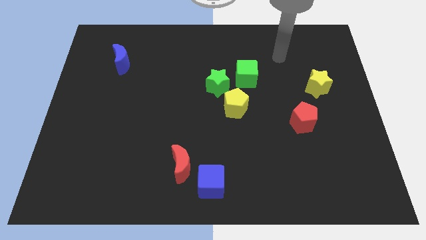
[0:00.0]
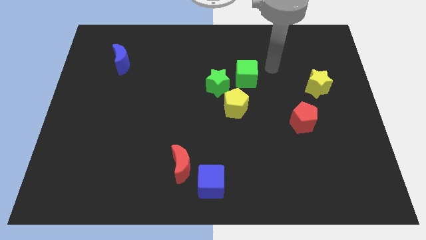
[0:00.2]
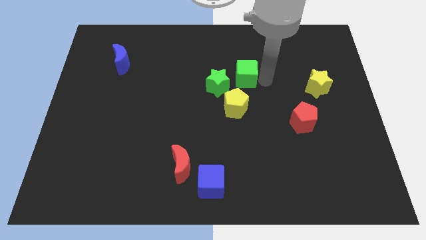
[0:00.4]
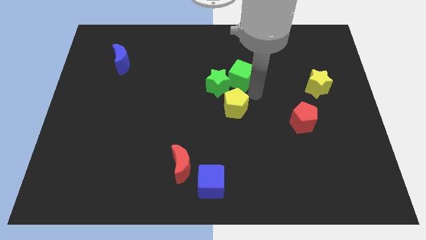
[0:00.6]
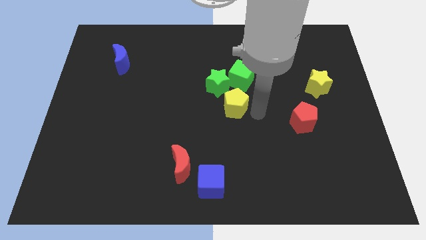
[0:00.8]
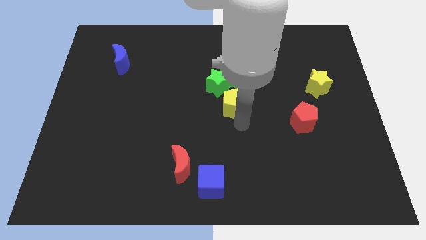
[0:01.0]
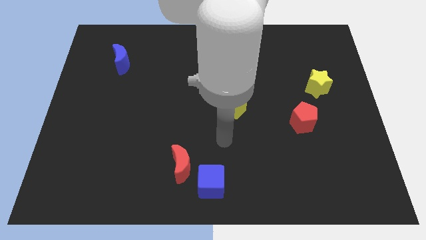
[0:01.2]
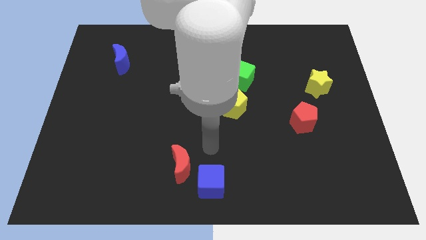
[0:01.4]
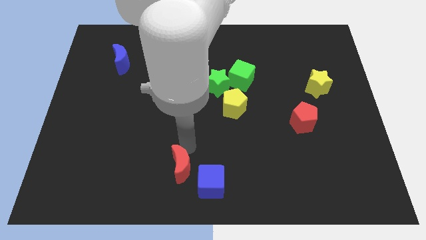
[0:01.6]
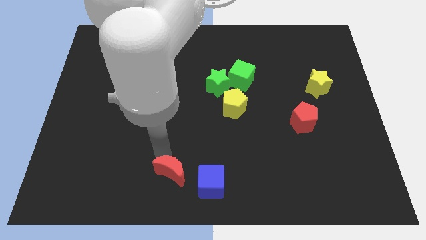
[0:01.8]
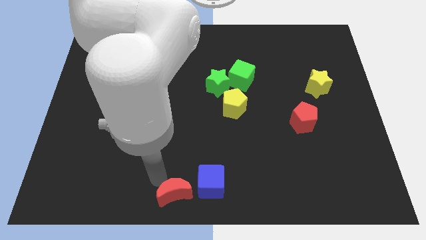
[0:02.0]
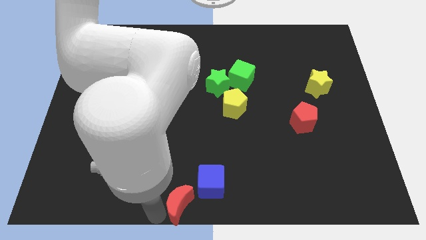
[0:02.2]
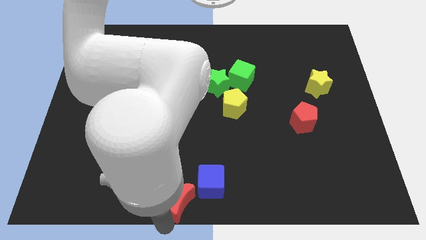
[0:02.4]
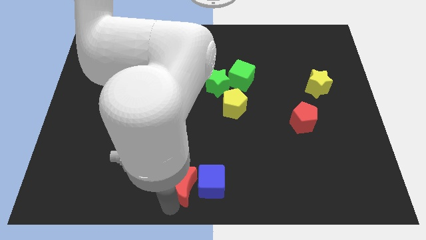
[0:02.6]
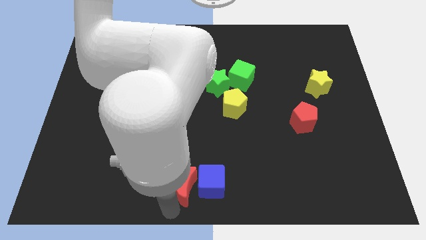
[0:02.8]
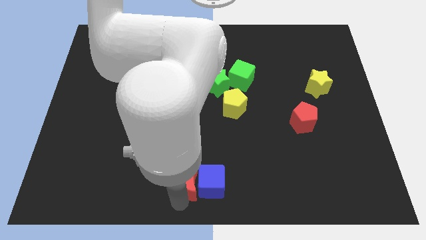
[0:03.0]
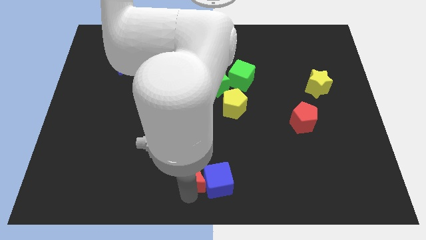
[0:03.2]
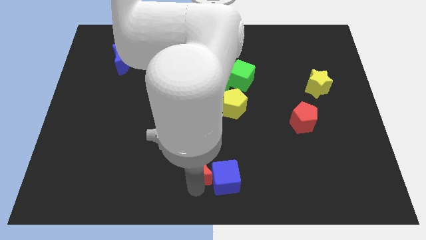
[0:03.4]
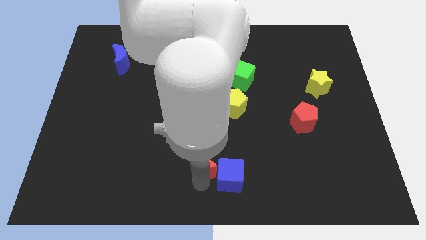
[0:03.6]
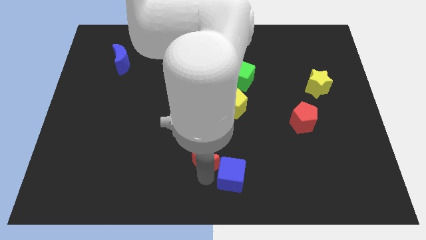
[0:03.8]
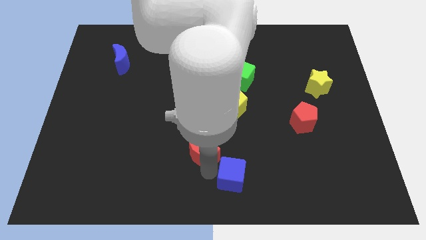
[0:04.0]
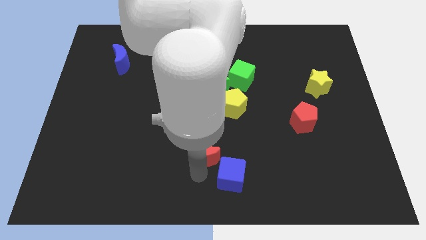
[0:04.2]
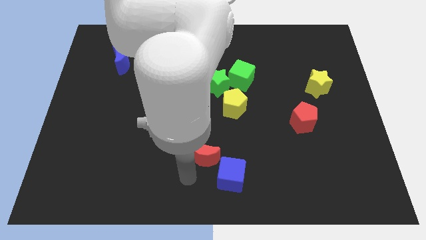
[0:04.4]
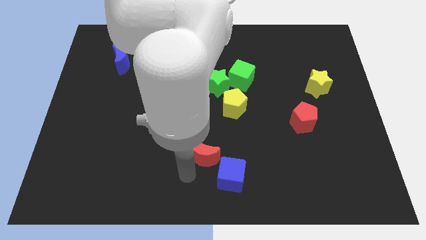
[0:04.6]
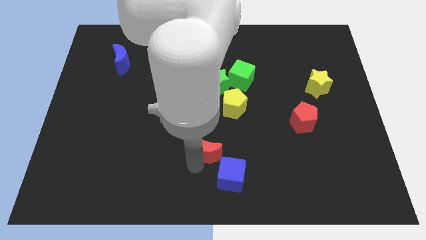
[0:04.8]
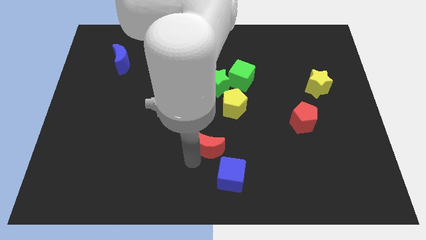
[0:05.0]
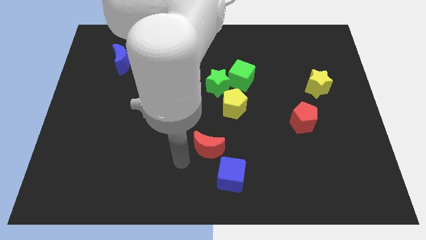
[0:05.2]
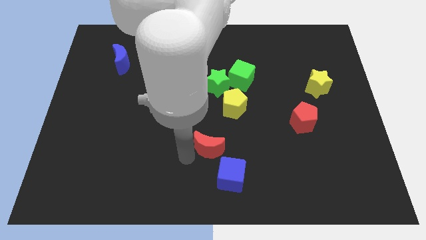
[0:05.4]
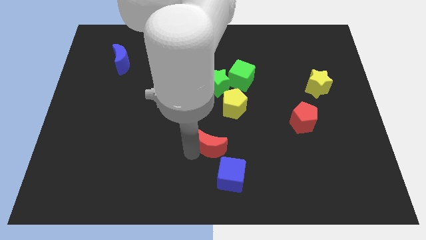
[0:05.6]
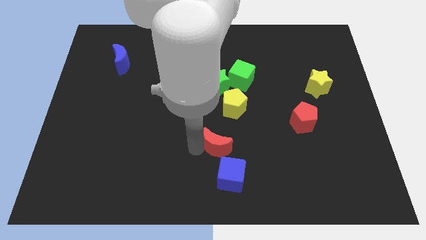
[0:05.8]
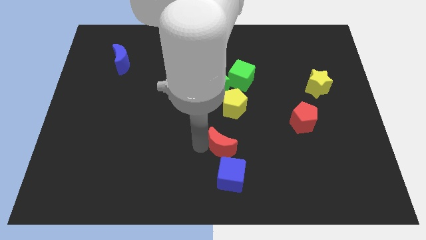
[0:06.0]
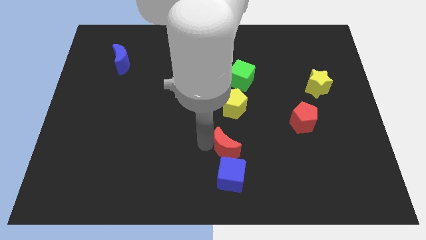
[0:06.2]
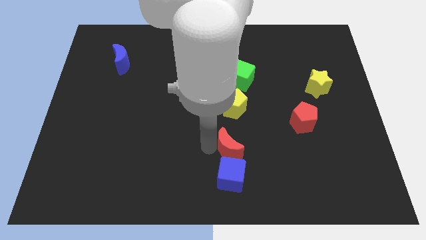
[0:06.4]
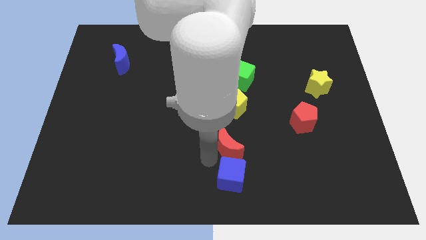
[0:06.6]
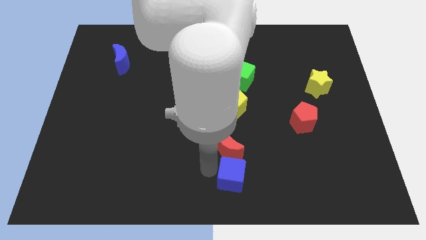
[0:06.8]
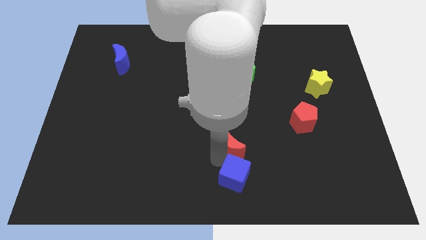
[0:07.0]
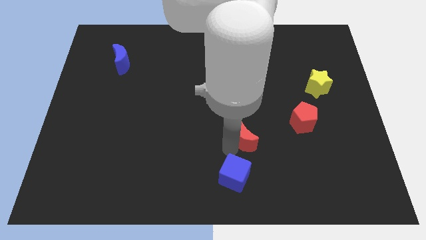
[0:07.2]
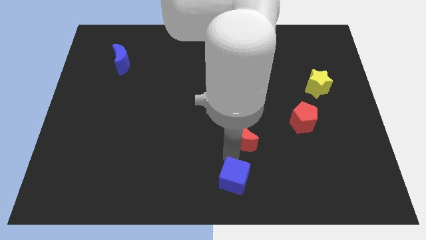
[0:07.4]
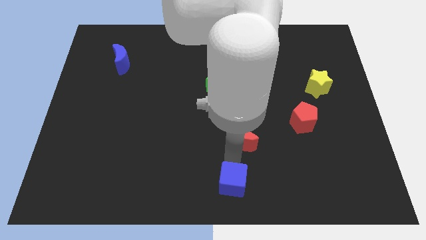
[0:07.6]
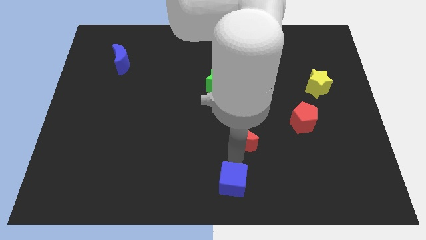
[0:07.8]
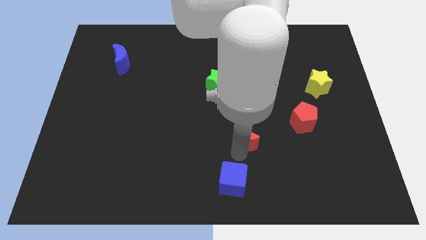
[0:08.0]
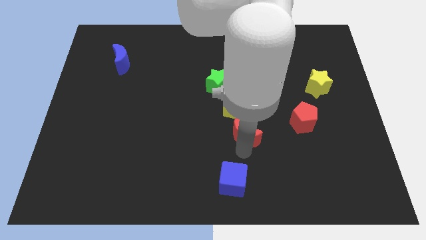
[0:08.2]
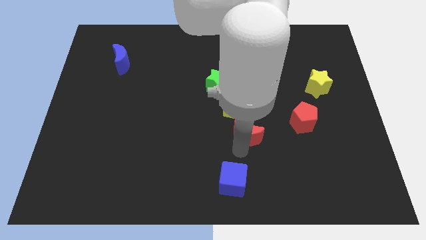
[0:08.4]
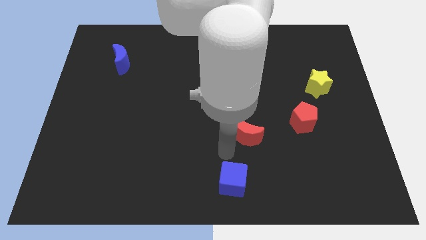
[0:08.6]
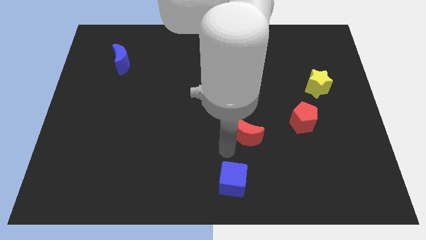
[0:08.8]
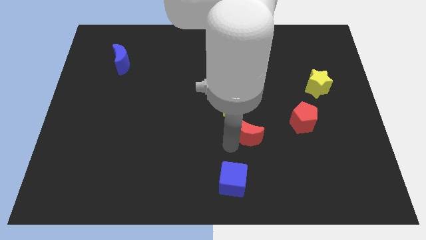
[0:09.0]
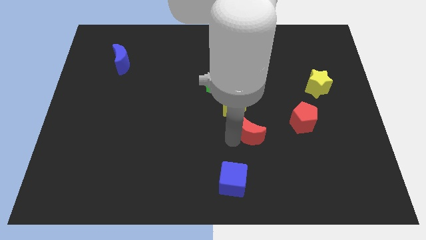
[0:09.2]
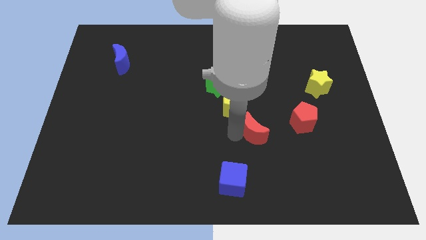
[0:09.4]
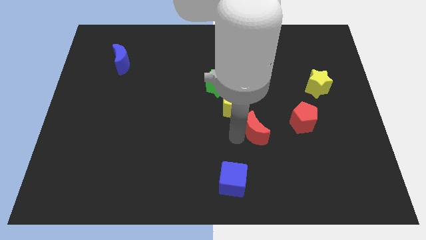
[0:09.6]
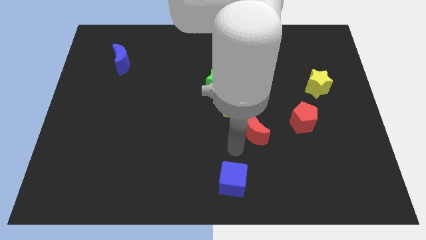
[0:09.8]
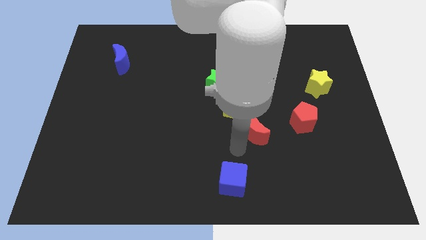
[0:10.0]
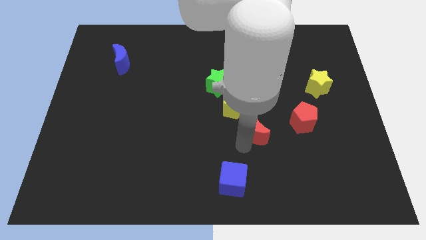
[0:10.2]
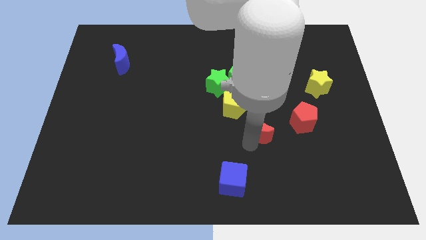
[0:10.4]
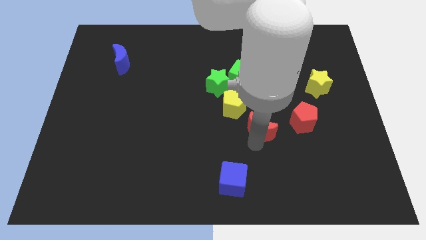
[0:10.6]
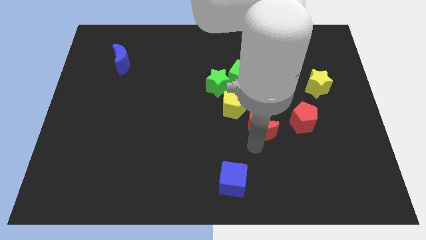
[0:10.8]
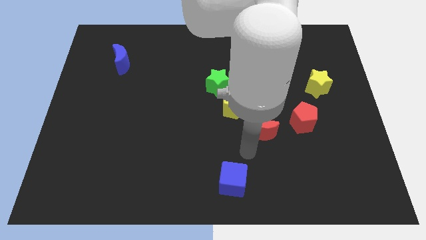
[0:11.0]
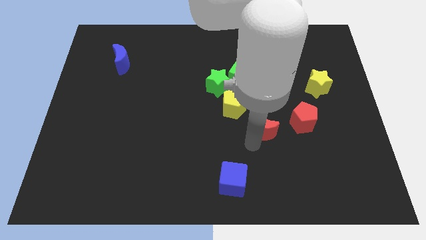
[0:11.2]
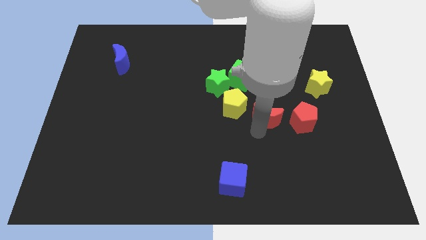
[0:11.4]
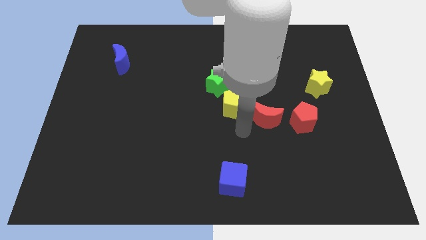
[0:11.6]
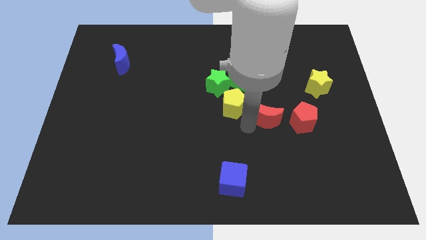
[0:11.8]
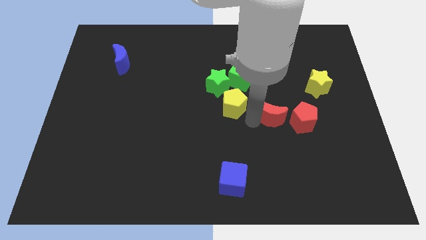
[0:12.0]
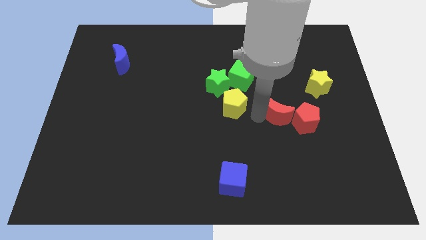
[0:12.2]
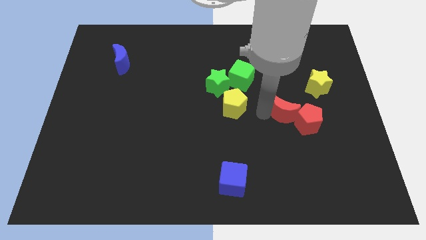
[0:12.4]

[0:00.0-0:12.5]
push the red moon diagonally down and to the left of the yellow star

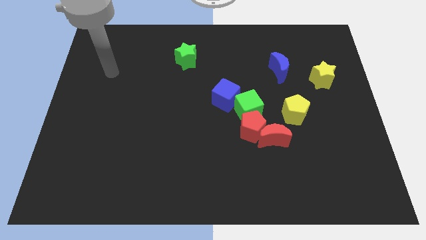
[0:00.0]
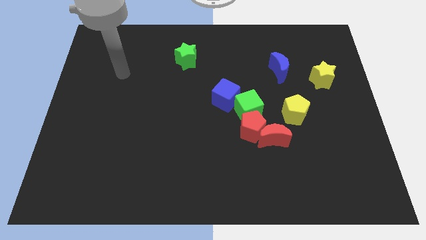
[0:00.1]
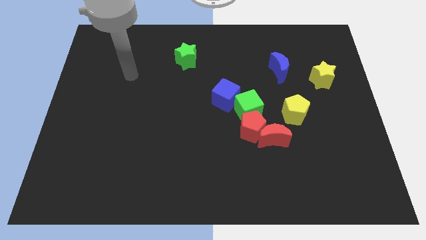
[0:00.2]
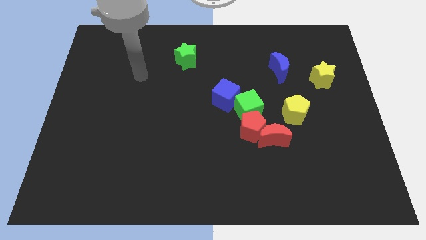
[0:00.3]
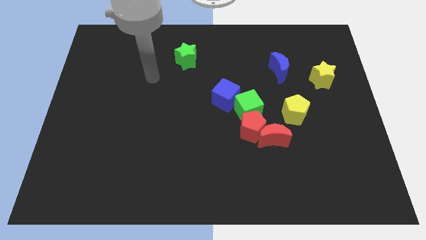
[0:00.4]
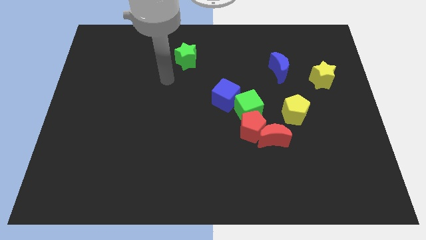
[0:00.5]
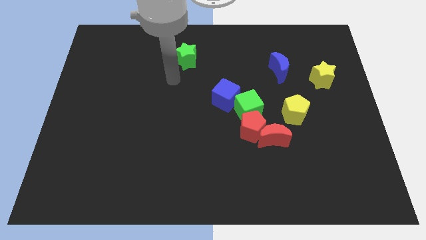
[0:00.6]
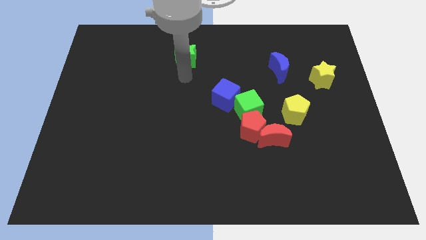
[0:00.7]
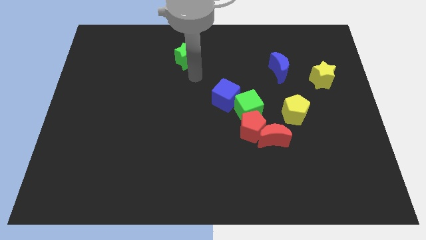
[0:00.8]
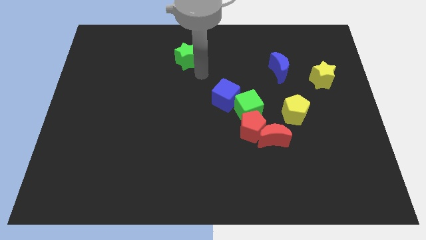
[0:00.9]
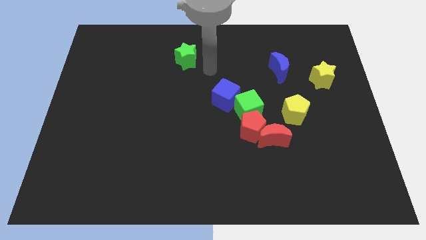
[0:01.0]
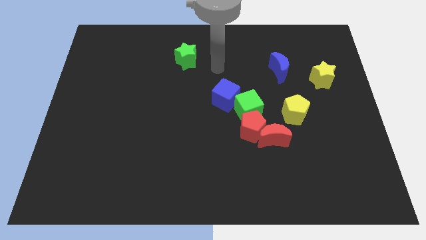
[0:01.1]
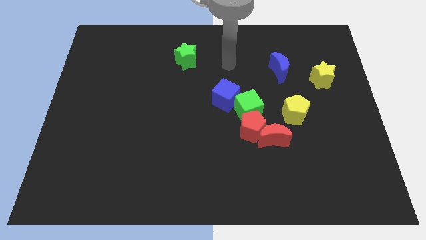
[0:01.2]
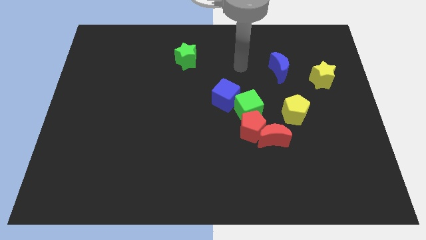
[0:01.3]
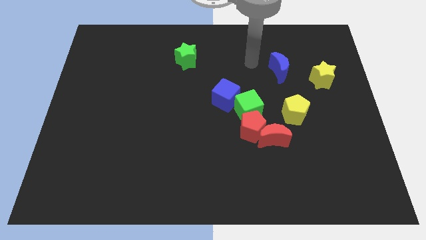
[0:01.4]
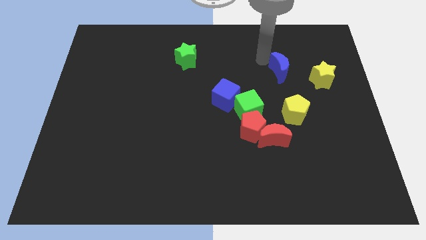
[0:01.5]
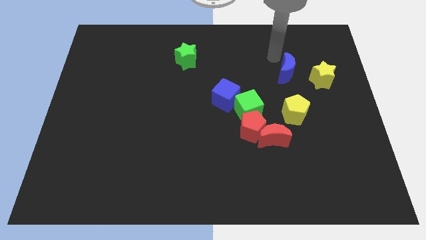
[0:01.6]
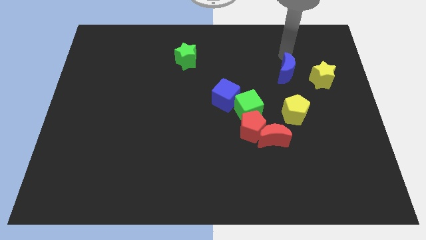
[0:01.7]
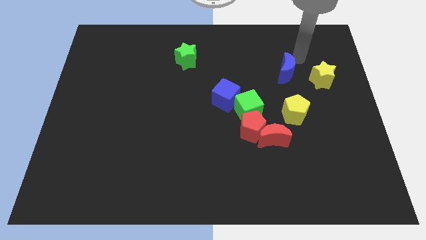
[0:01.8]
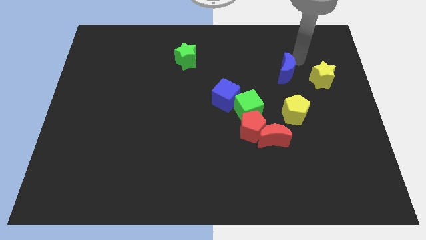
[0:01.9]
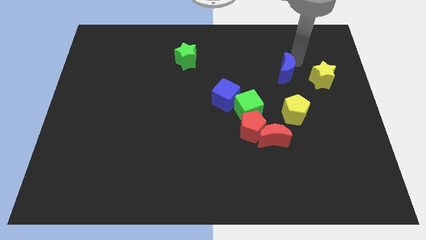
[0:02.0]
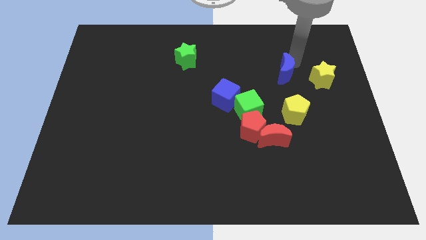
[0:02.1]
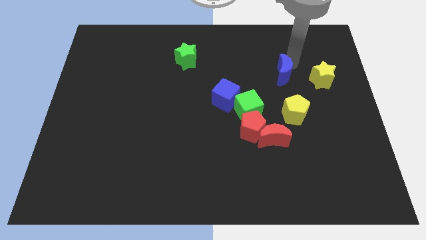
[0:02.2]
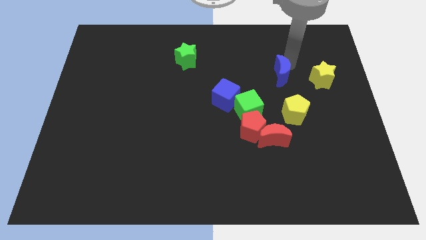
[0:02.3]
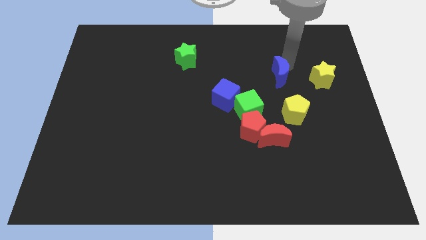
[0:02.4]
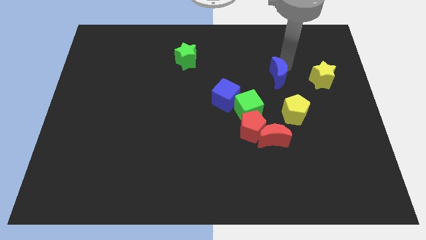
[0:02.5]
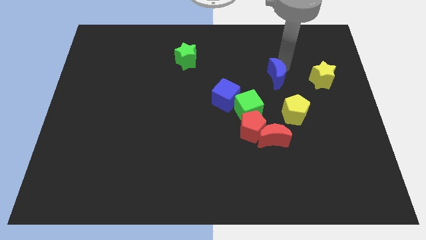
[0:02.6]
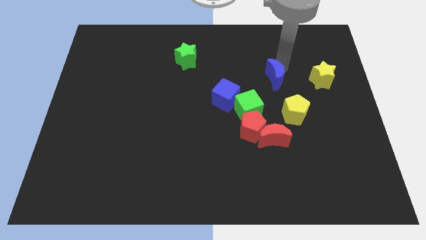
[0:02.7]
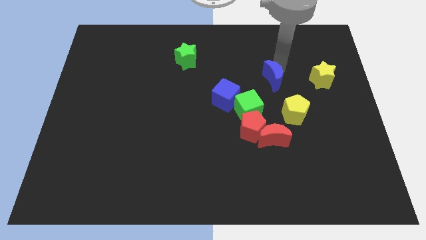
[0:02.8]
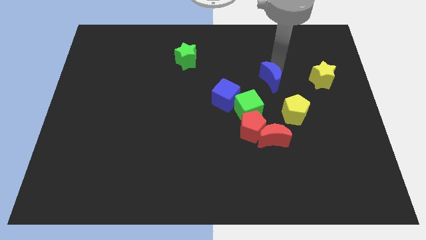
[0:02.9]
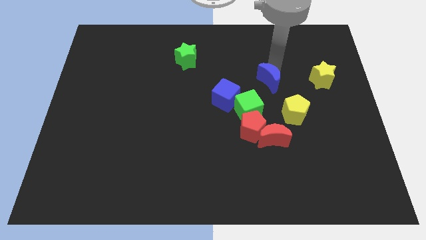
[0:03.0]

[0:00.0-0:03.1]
slide the blue moon to the top left of the yellow pentagon
